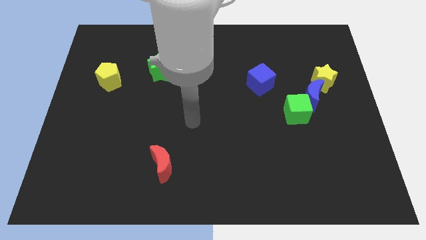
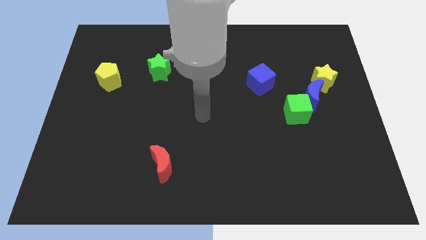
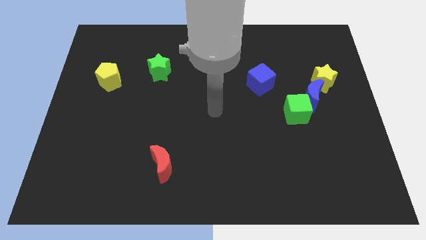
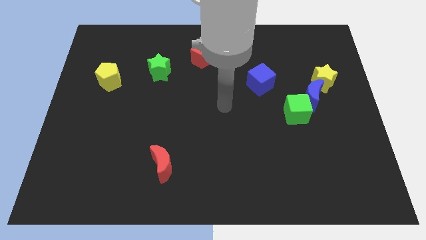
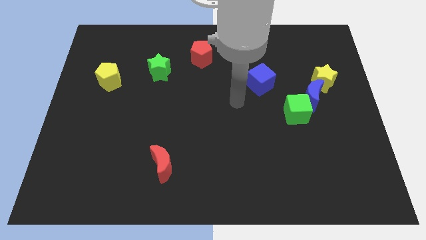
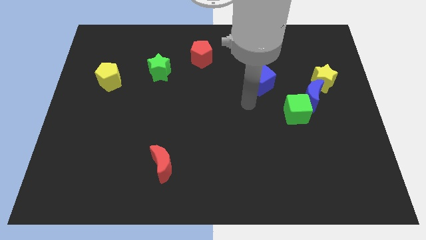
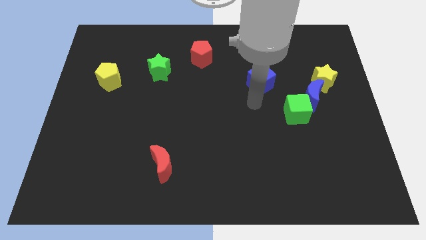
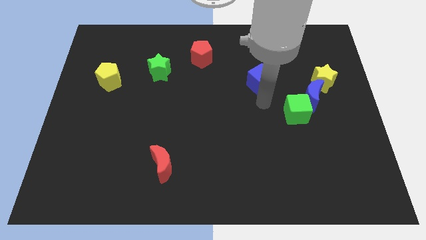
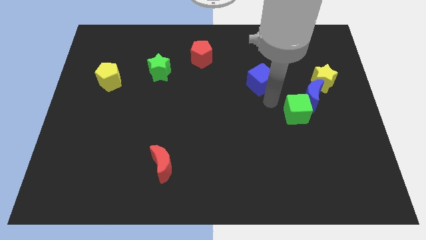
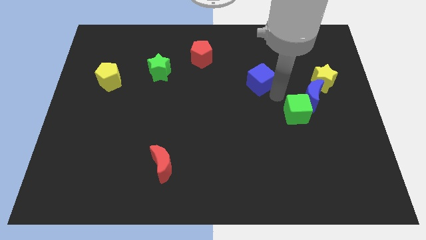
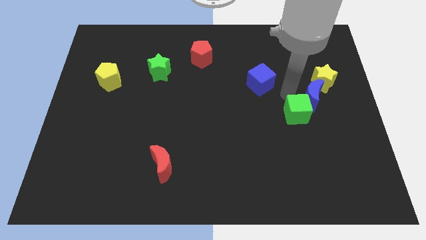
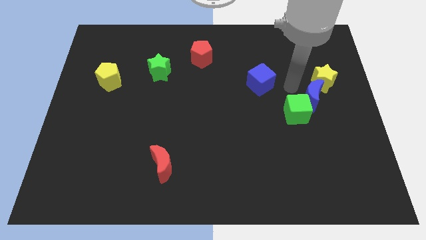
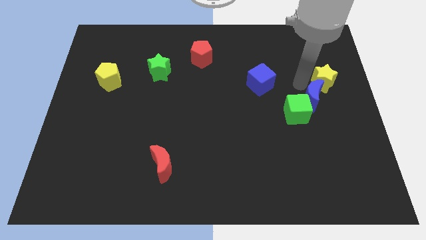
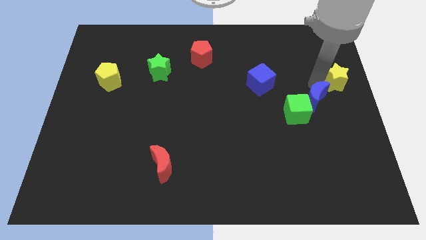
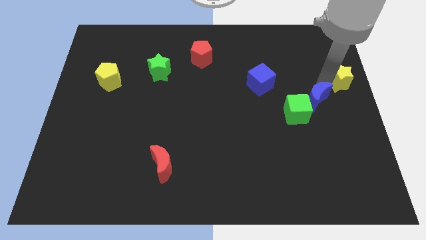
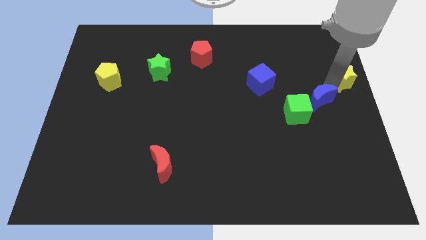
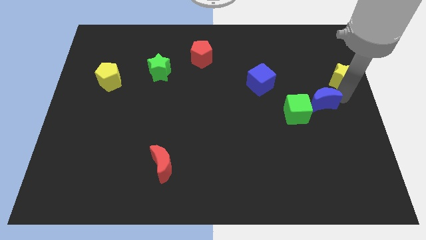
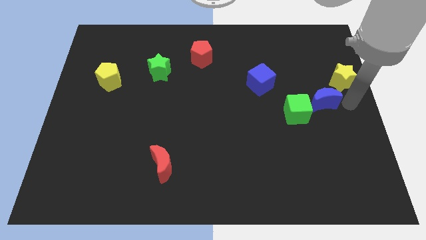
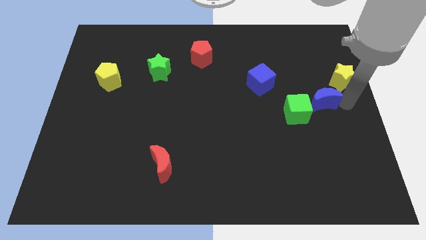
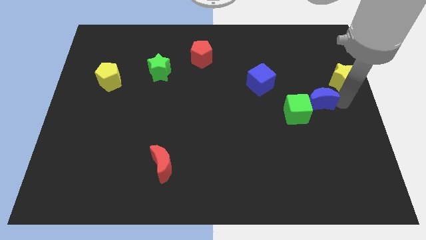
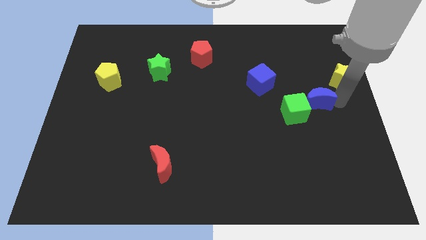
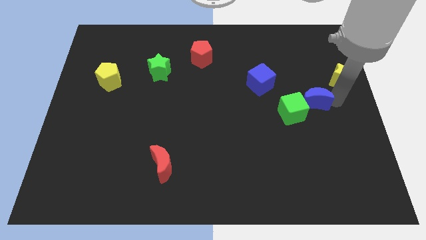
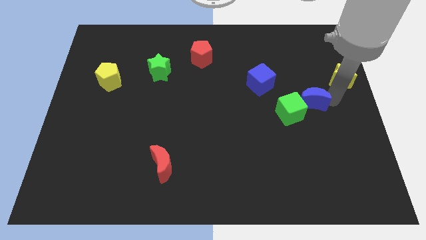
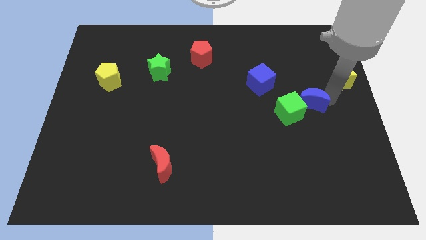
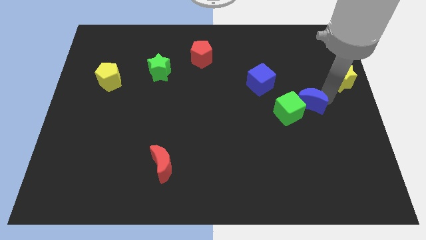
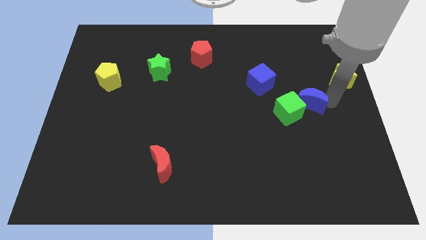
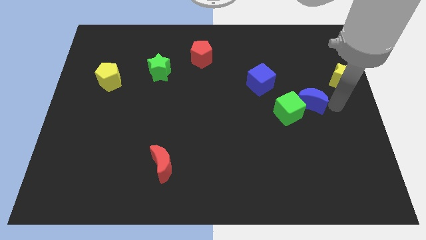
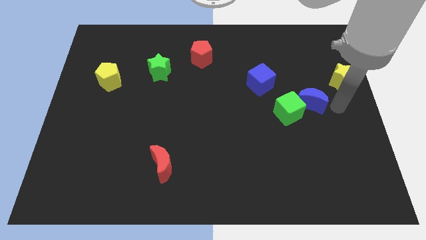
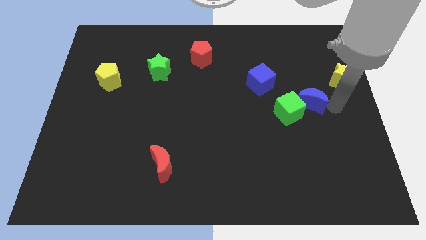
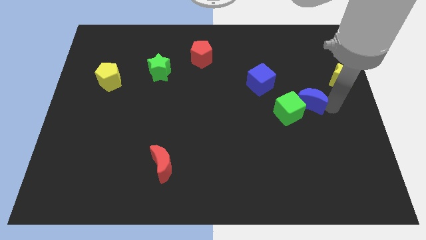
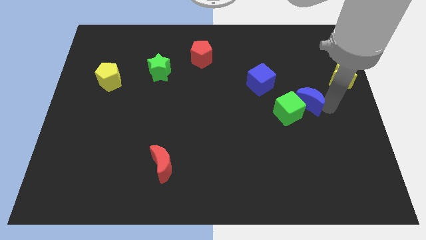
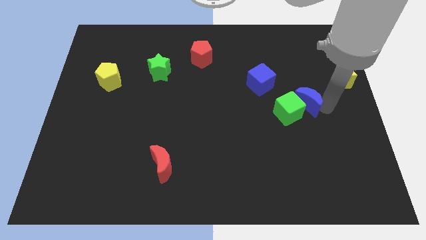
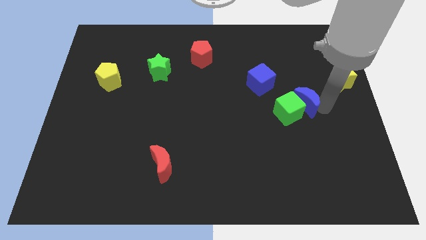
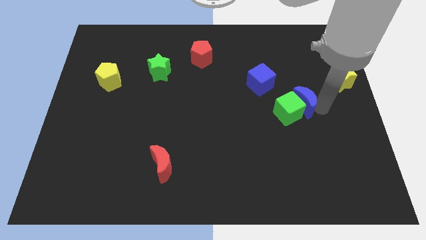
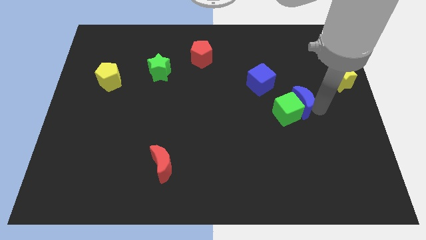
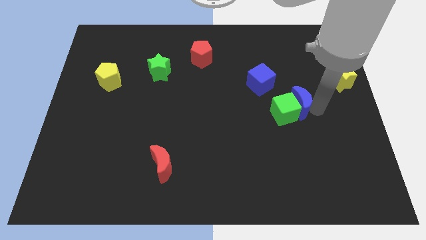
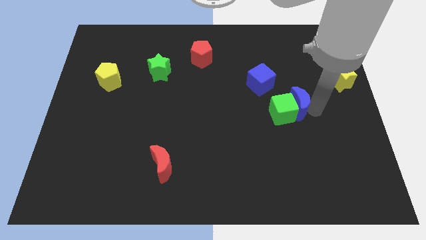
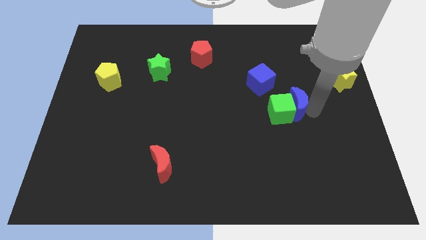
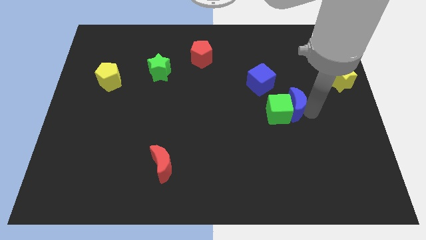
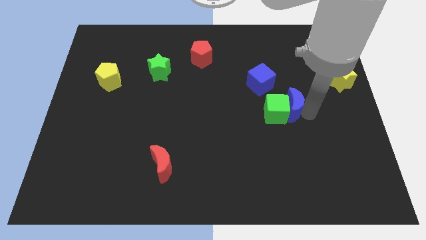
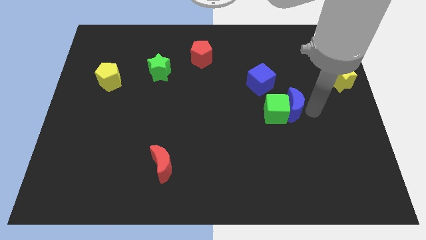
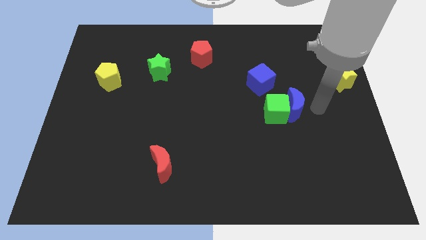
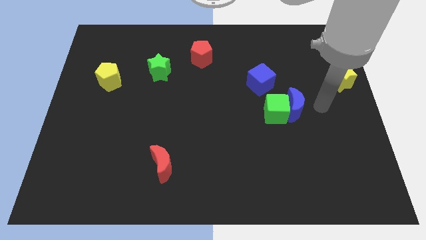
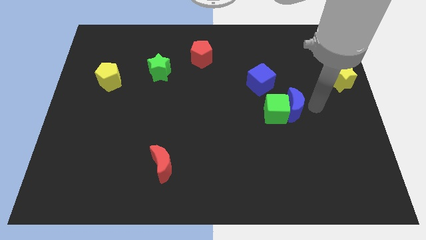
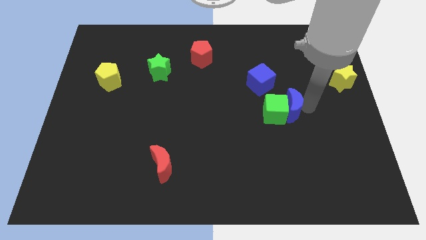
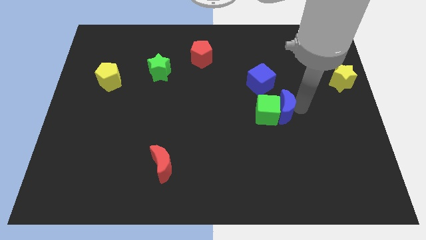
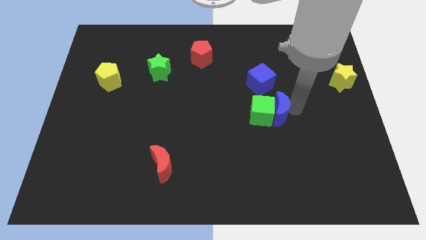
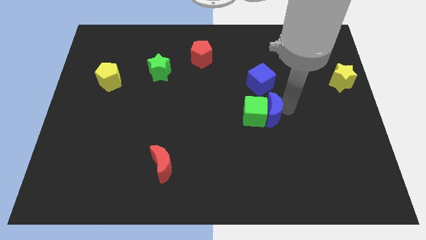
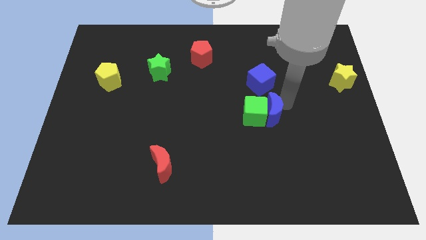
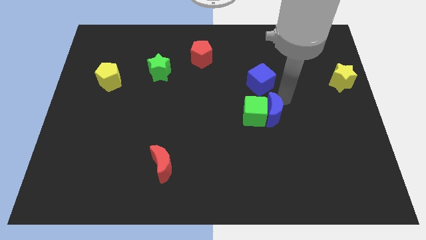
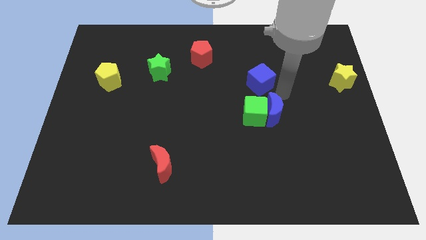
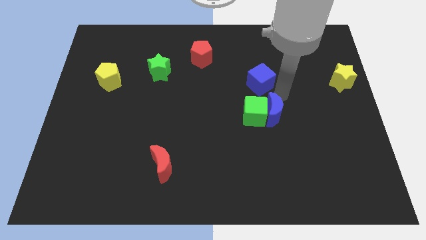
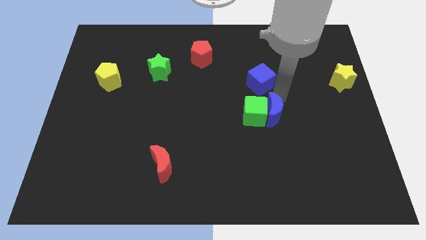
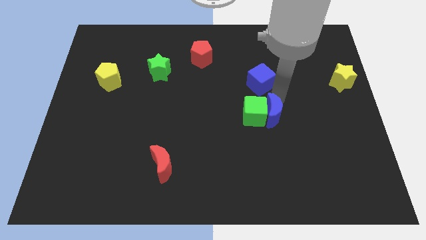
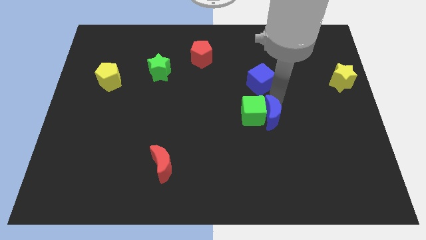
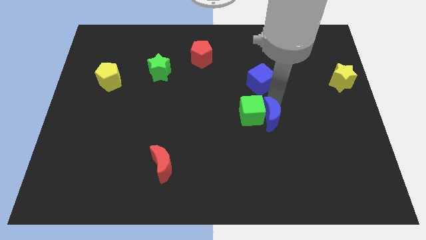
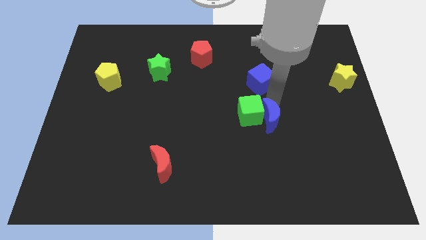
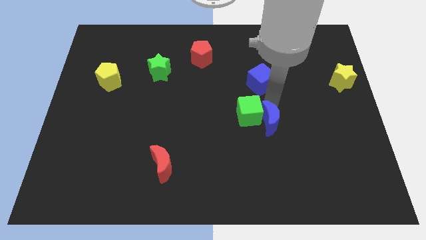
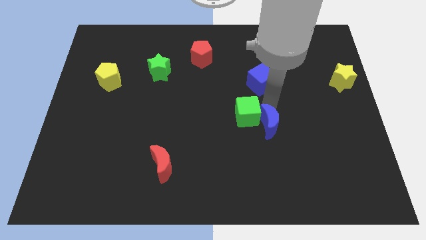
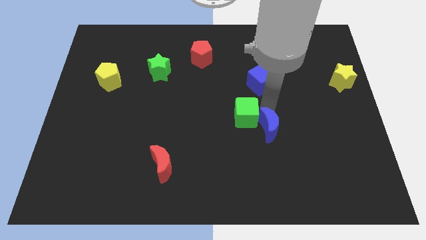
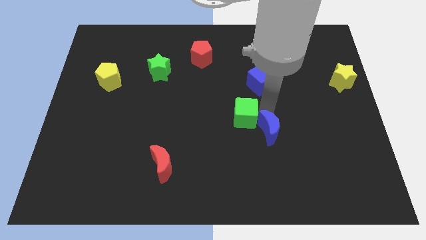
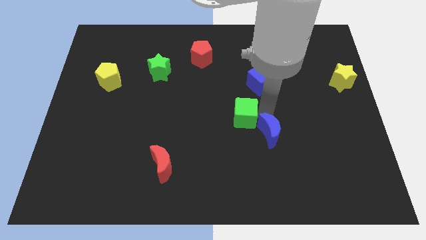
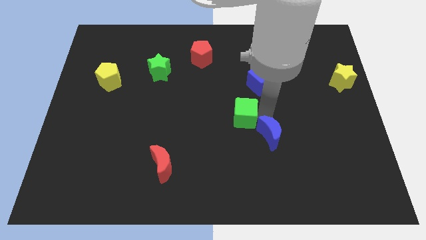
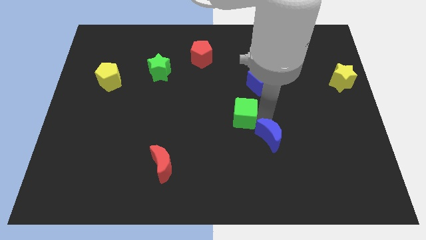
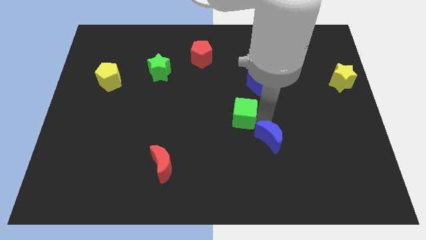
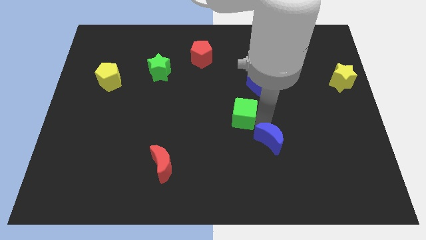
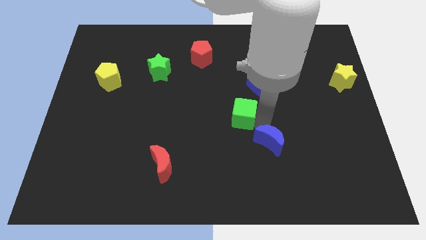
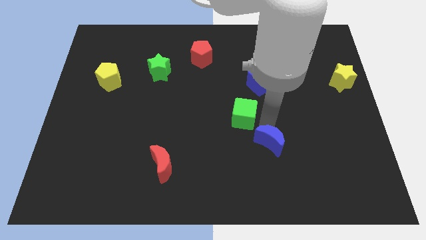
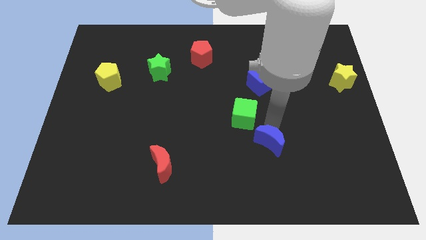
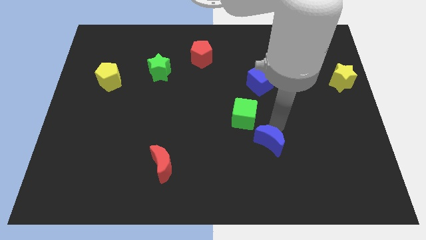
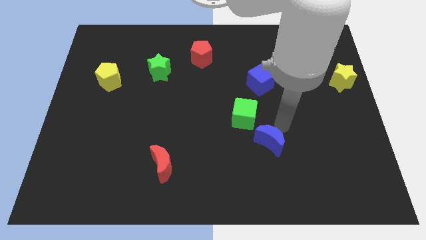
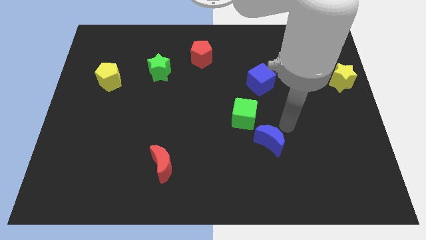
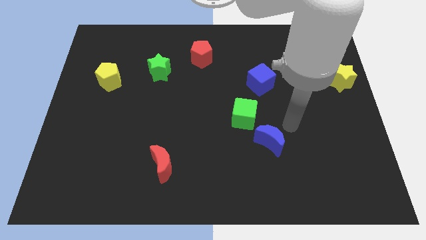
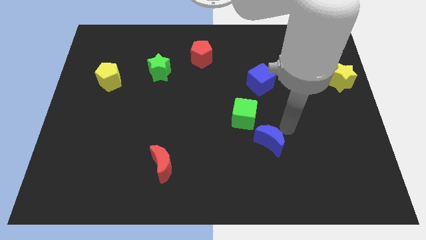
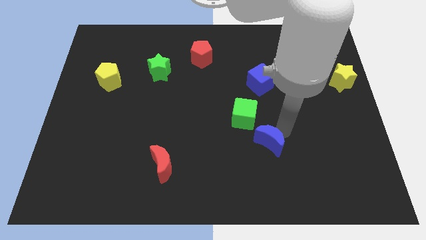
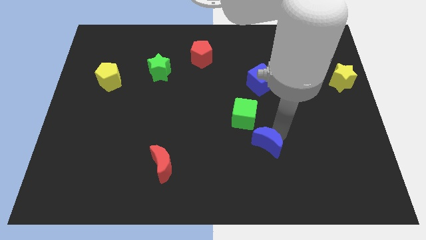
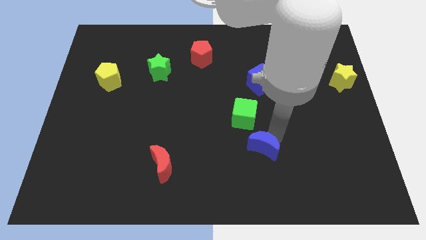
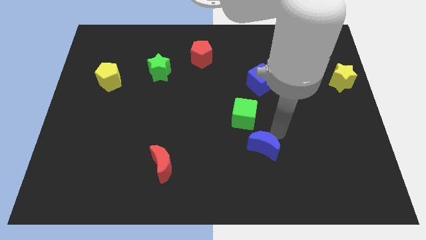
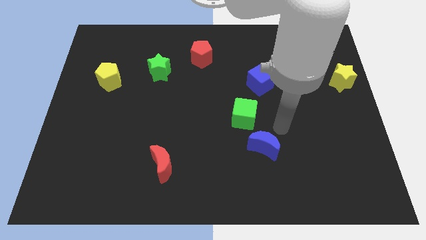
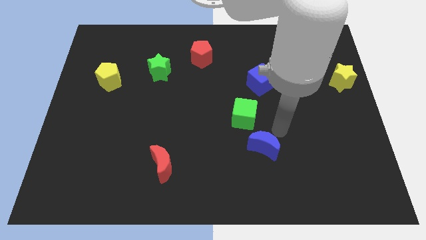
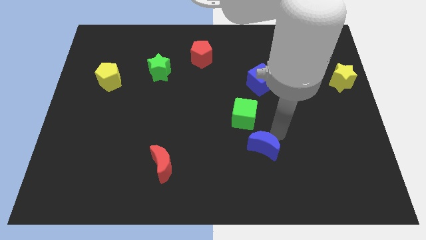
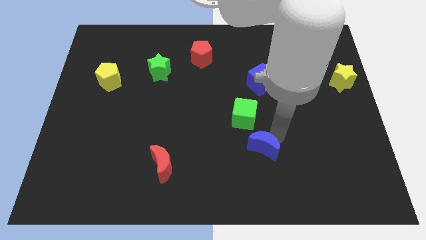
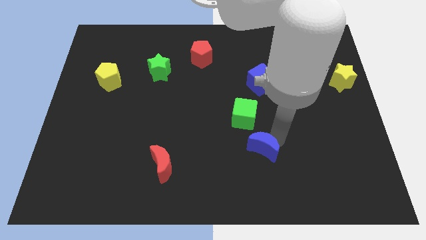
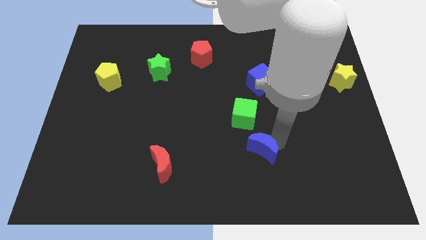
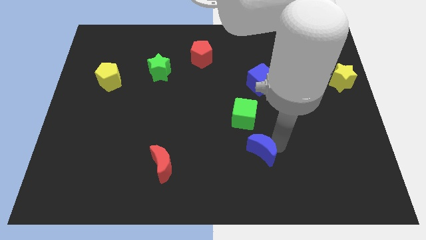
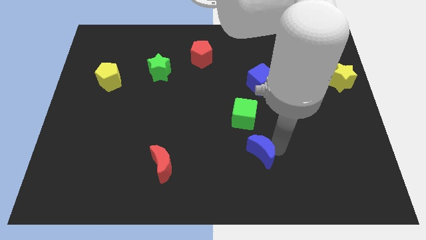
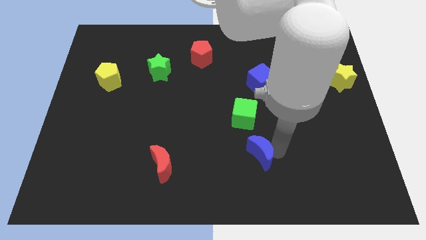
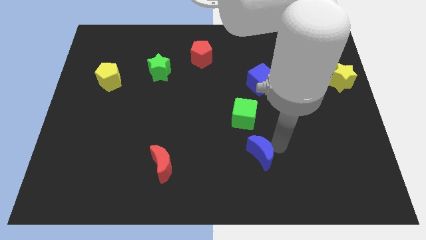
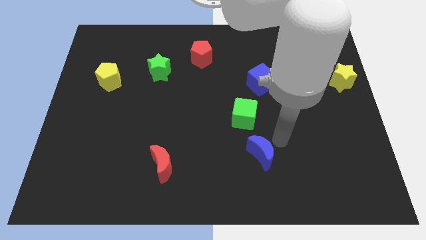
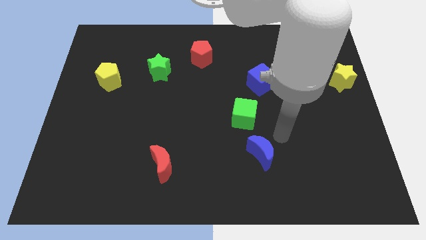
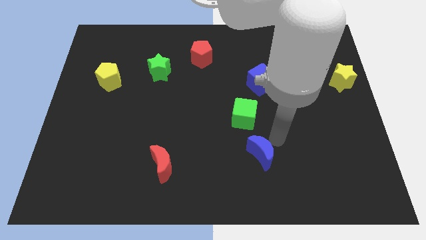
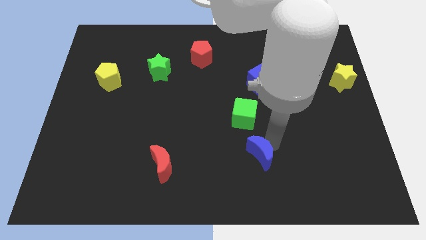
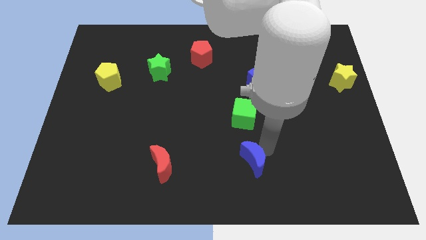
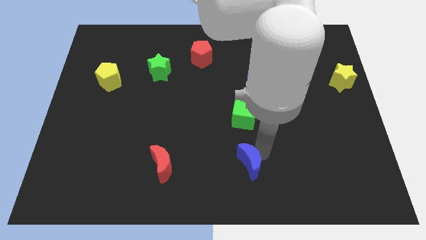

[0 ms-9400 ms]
put the blue moon to the bottom
